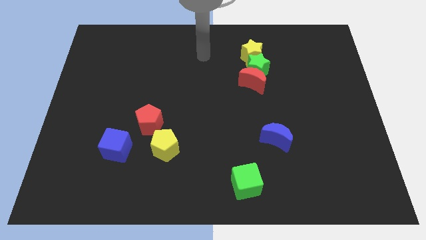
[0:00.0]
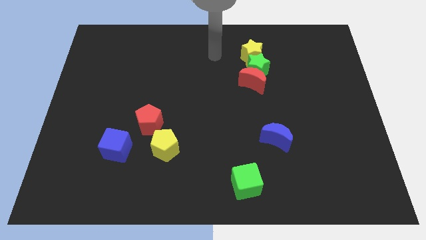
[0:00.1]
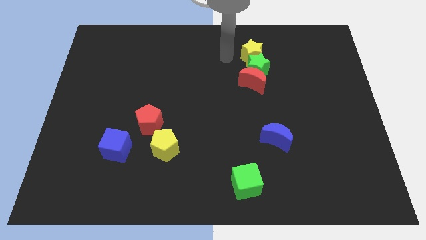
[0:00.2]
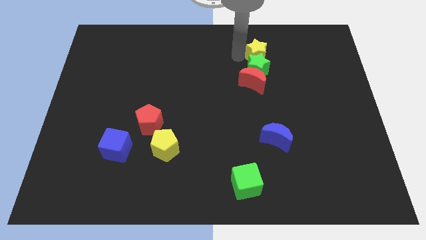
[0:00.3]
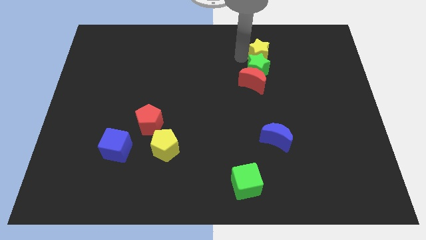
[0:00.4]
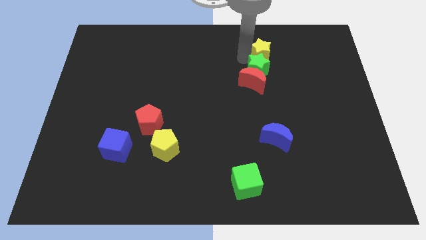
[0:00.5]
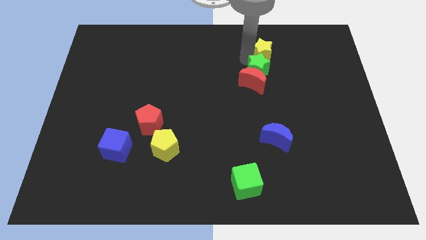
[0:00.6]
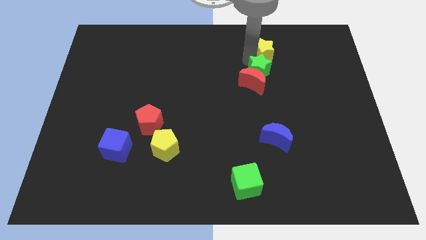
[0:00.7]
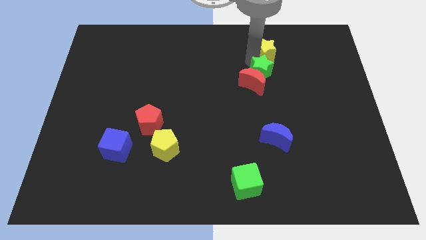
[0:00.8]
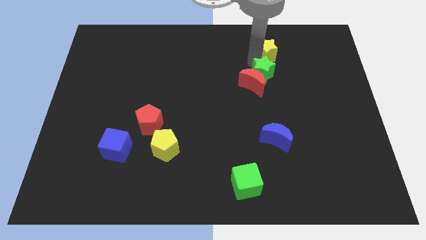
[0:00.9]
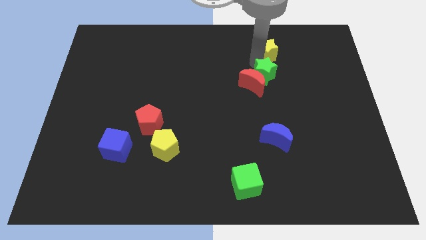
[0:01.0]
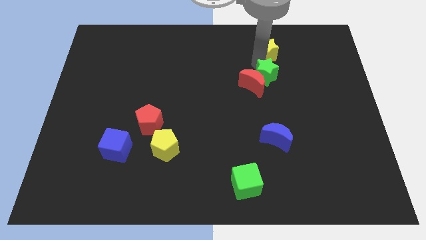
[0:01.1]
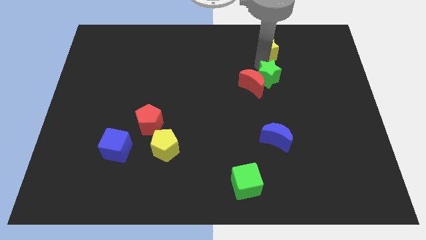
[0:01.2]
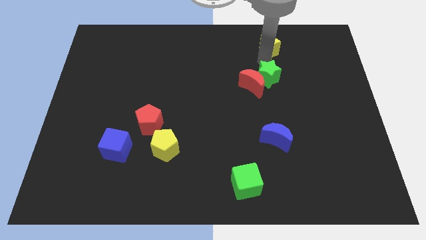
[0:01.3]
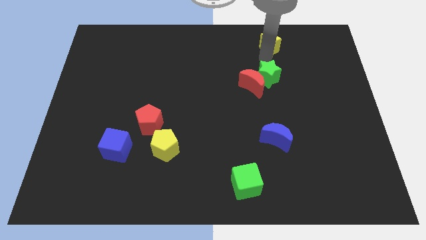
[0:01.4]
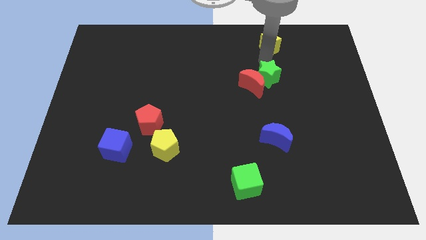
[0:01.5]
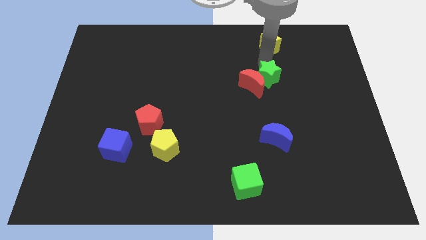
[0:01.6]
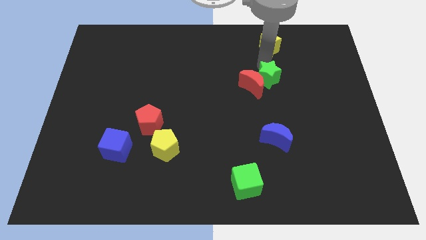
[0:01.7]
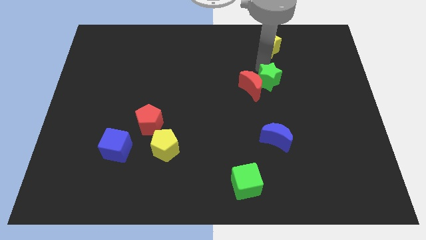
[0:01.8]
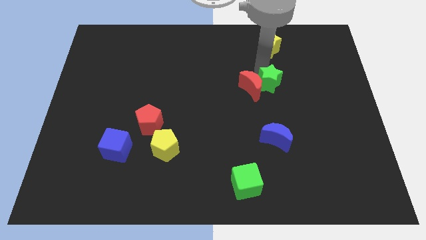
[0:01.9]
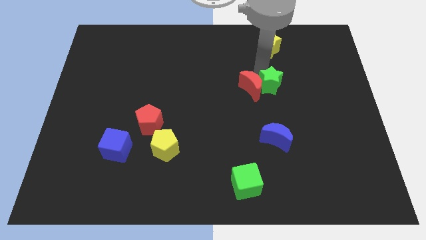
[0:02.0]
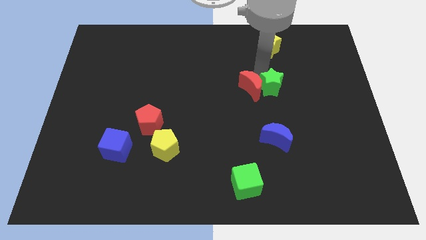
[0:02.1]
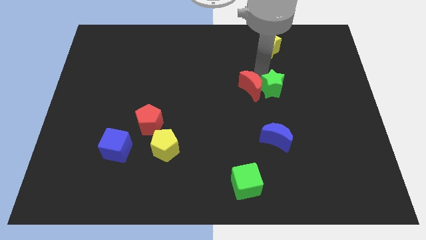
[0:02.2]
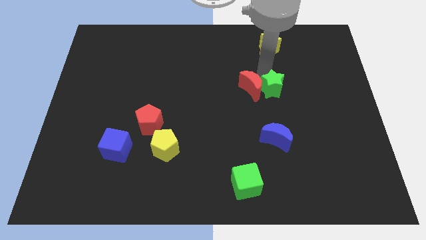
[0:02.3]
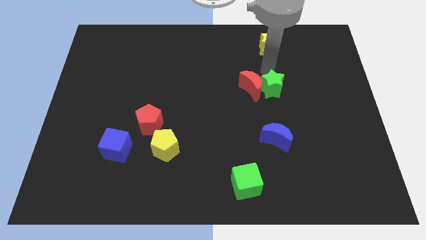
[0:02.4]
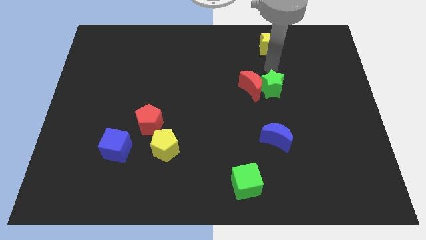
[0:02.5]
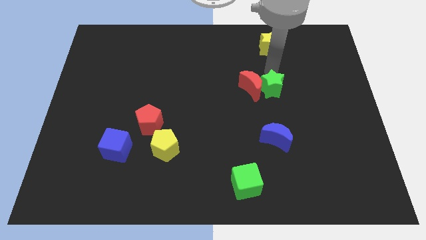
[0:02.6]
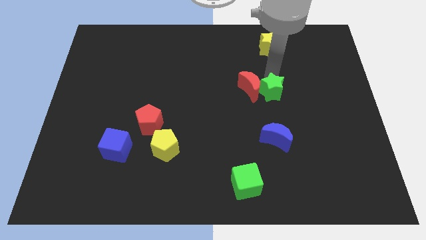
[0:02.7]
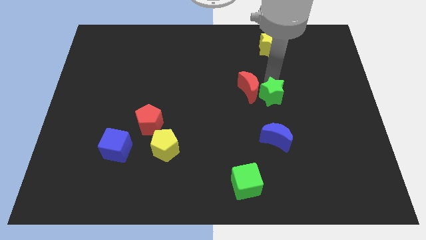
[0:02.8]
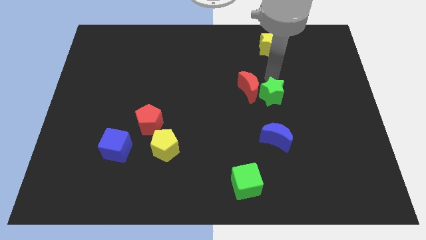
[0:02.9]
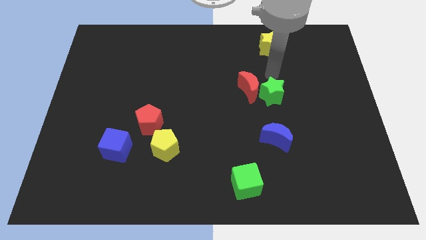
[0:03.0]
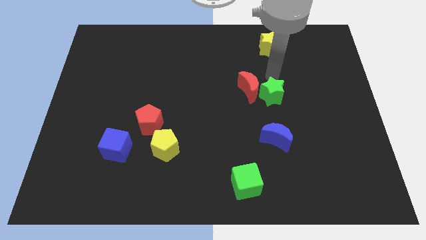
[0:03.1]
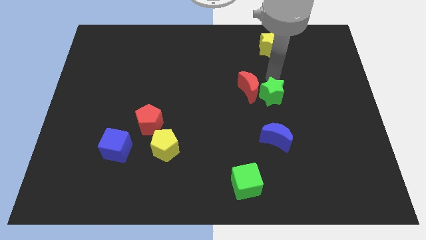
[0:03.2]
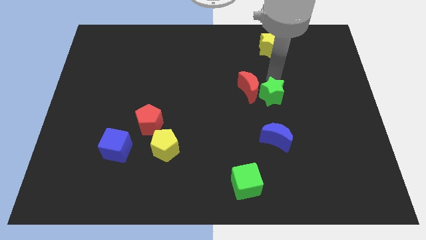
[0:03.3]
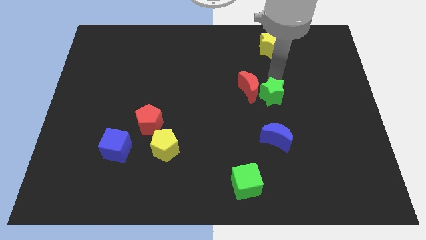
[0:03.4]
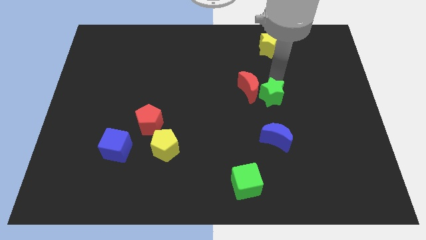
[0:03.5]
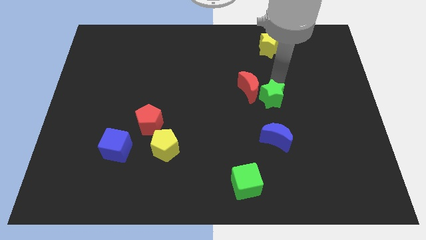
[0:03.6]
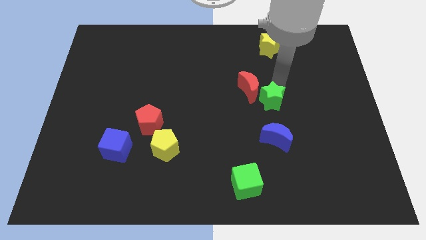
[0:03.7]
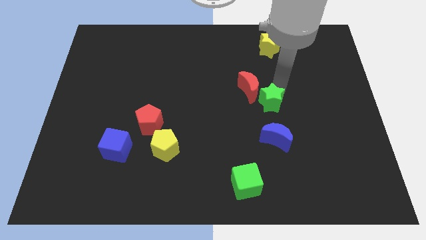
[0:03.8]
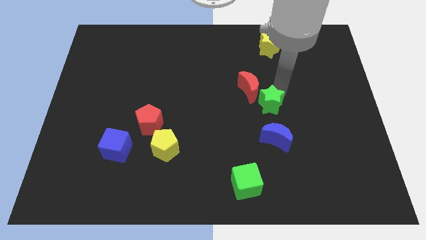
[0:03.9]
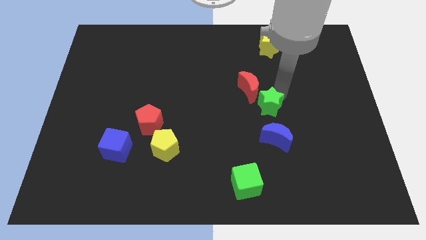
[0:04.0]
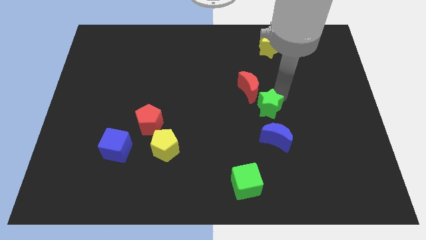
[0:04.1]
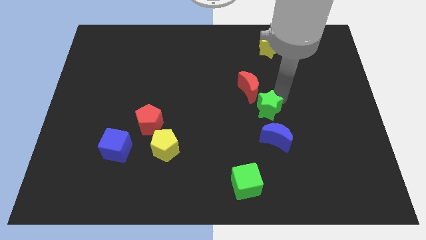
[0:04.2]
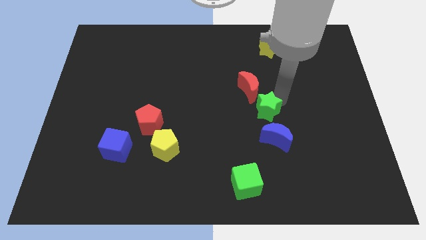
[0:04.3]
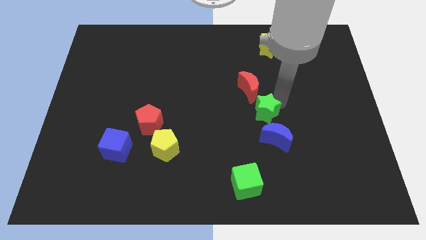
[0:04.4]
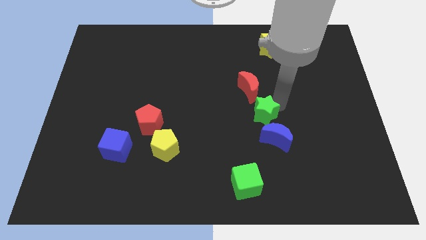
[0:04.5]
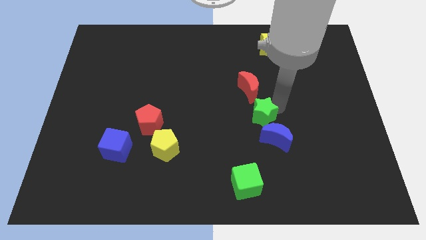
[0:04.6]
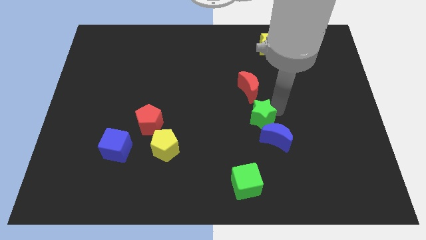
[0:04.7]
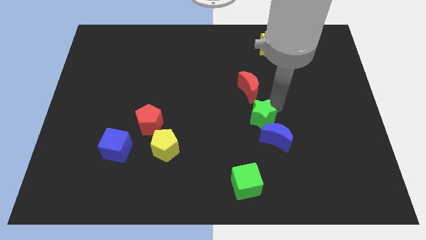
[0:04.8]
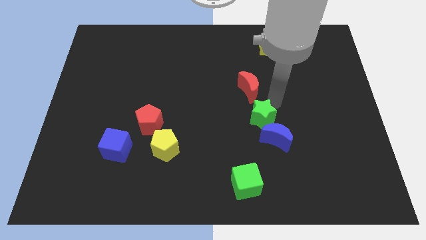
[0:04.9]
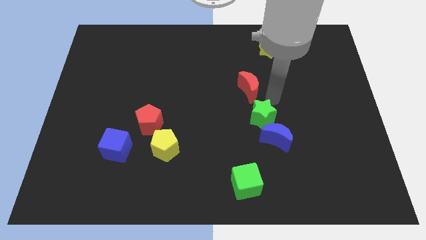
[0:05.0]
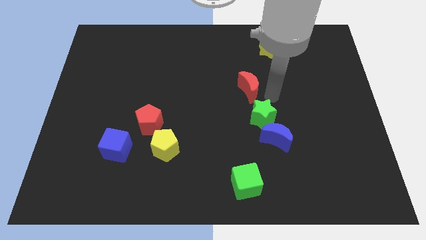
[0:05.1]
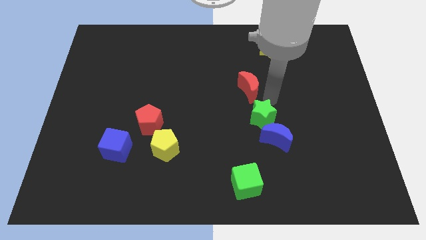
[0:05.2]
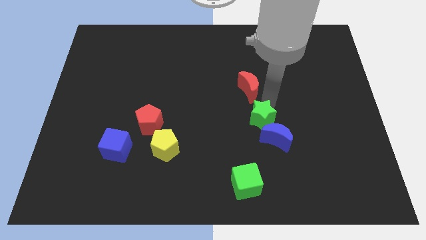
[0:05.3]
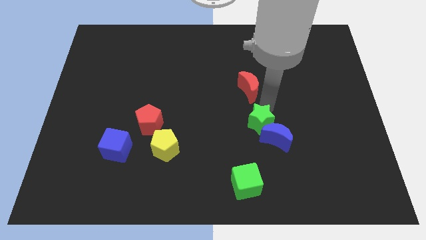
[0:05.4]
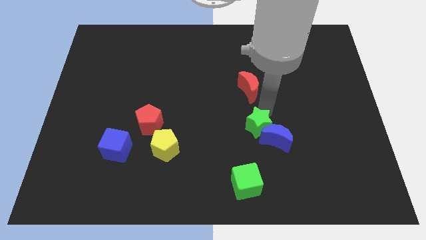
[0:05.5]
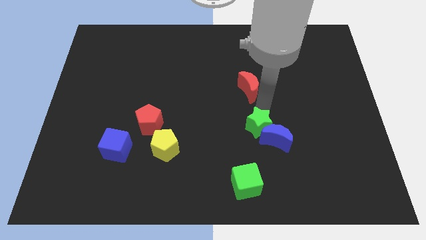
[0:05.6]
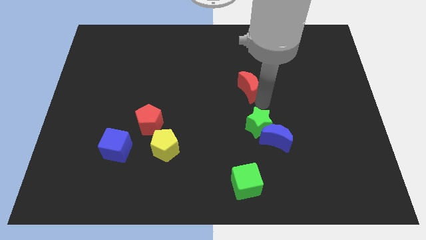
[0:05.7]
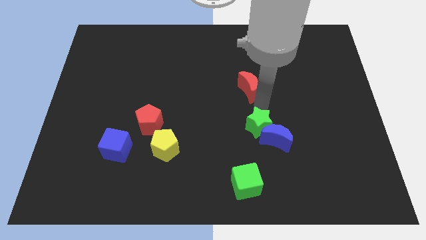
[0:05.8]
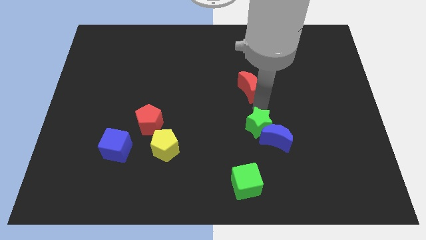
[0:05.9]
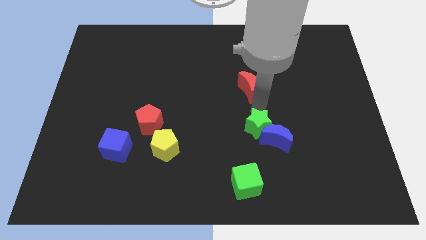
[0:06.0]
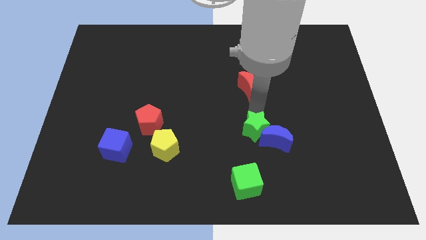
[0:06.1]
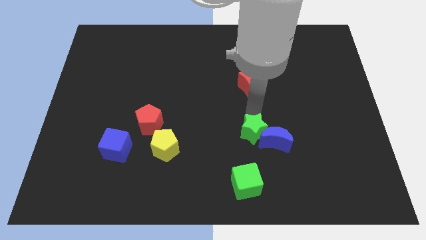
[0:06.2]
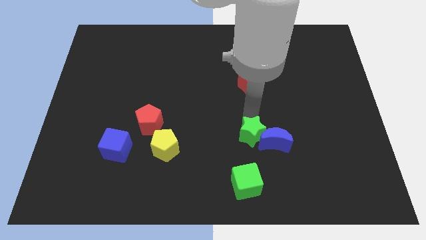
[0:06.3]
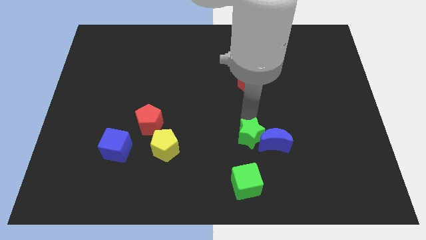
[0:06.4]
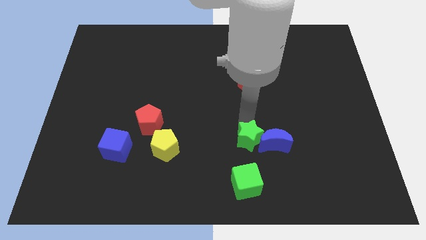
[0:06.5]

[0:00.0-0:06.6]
put the green star diagonally down and to the left of the blue moon

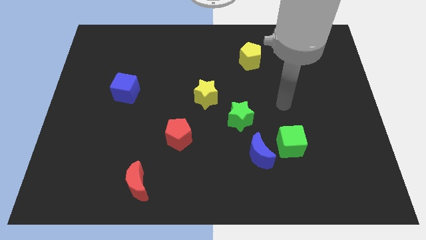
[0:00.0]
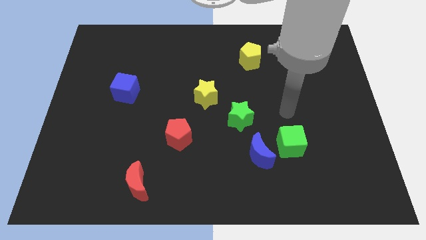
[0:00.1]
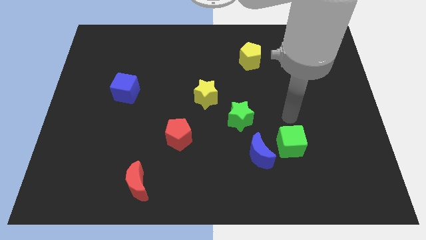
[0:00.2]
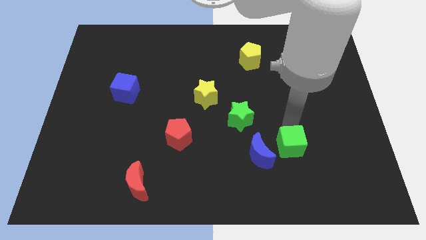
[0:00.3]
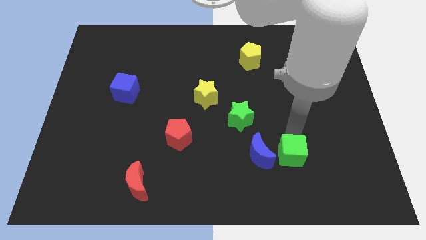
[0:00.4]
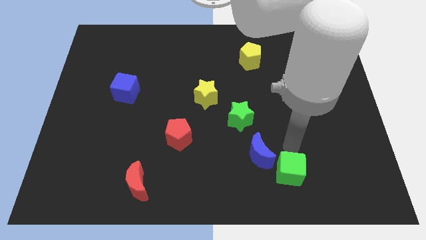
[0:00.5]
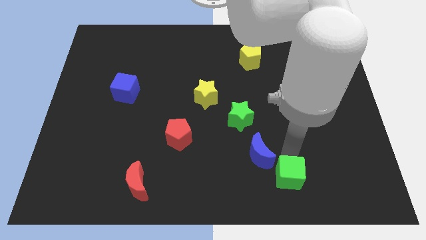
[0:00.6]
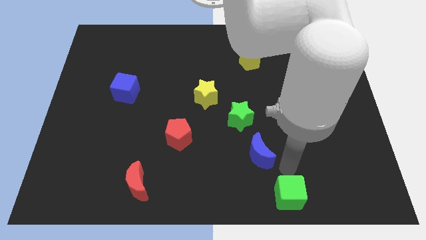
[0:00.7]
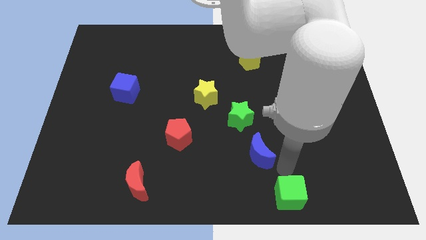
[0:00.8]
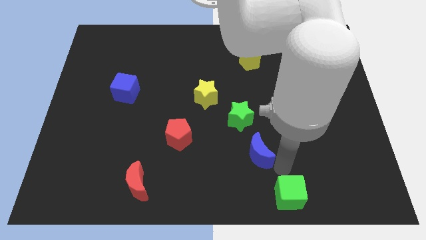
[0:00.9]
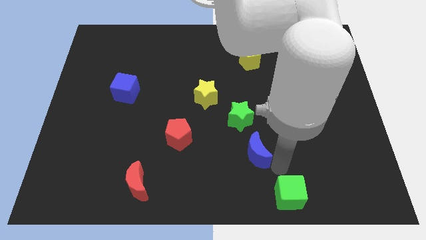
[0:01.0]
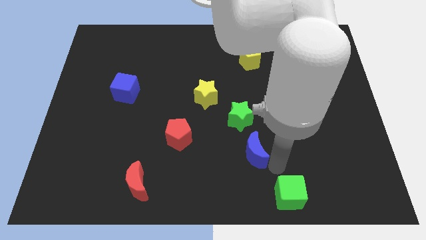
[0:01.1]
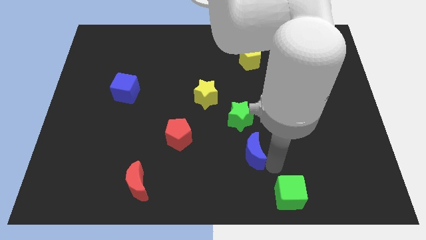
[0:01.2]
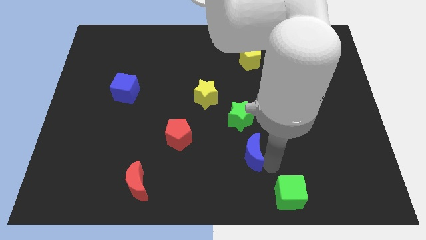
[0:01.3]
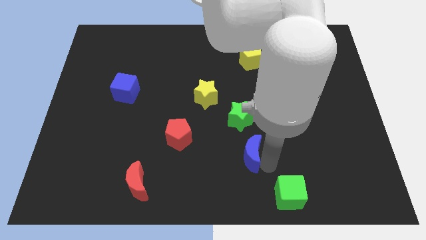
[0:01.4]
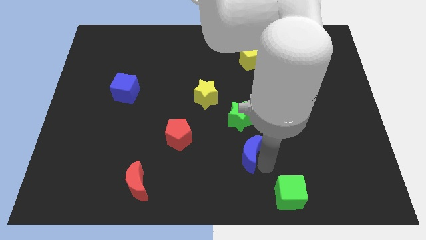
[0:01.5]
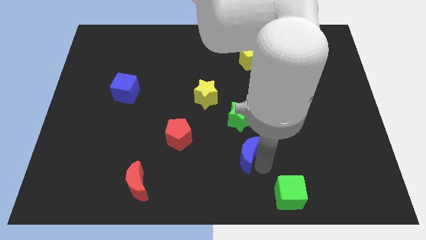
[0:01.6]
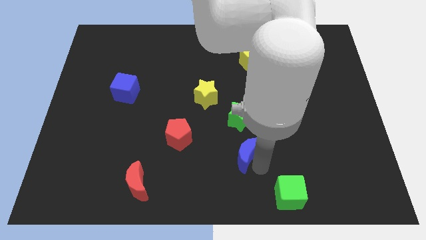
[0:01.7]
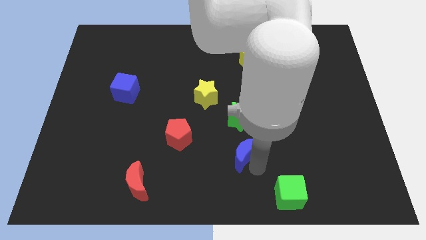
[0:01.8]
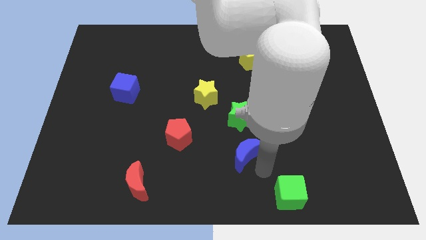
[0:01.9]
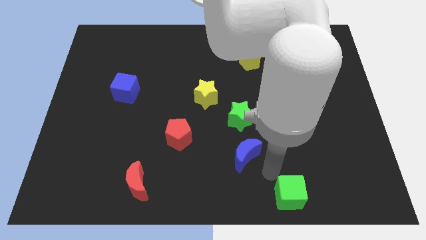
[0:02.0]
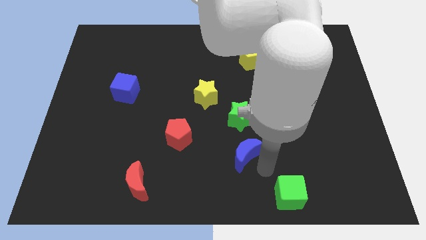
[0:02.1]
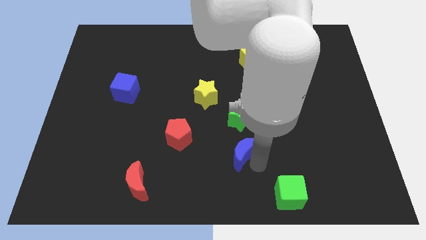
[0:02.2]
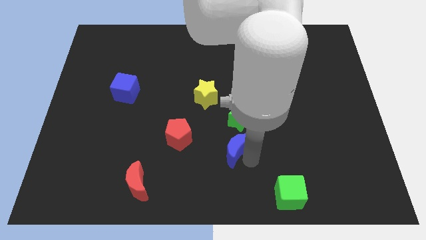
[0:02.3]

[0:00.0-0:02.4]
put the blue moon to the bottom left side of the green star
